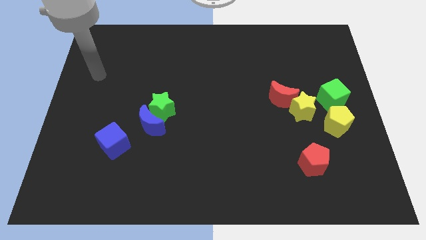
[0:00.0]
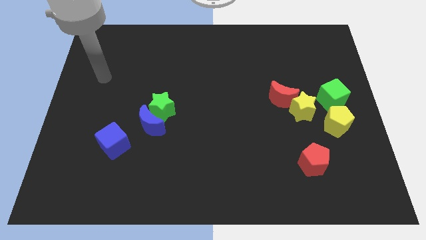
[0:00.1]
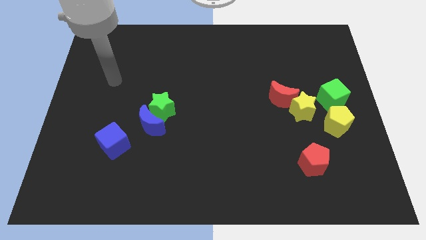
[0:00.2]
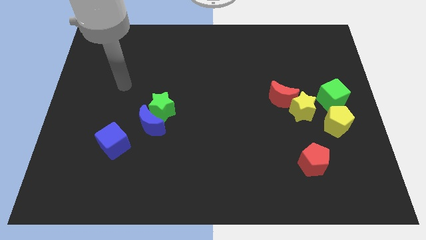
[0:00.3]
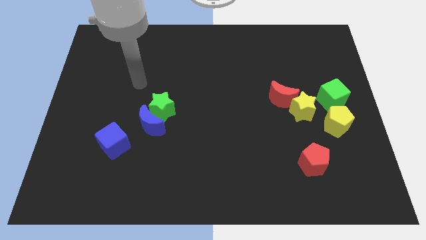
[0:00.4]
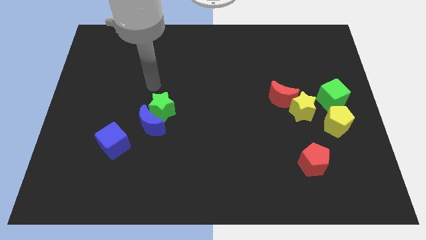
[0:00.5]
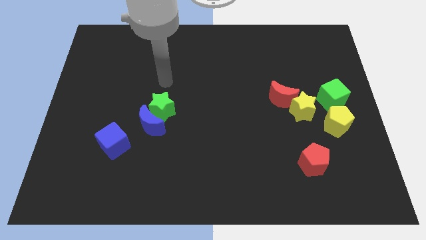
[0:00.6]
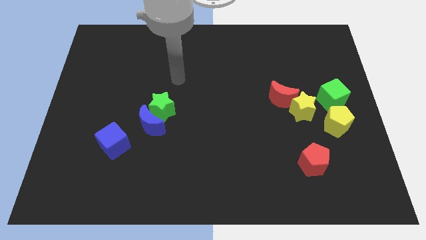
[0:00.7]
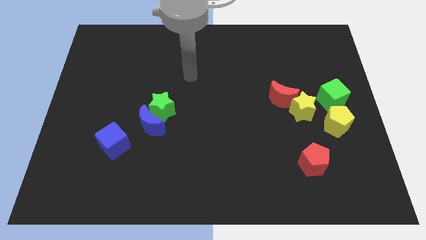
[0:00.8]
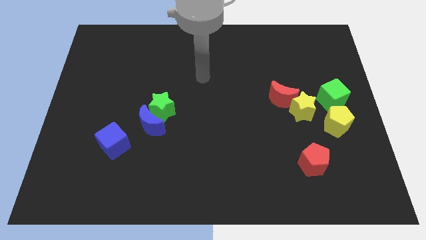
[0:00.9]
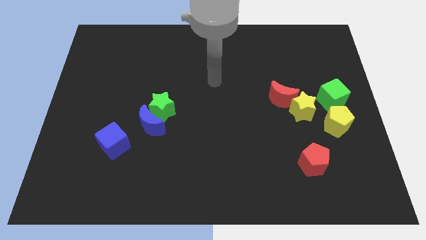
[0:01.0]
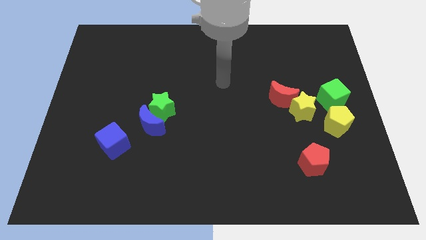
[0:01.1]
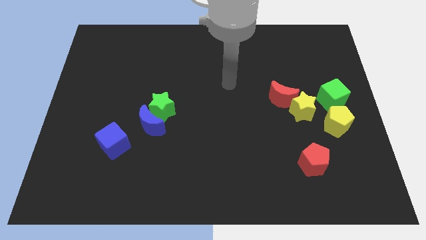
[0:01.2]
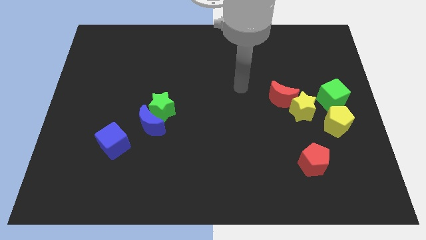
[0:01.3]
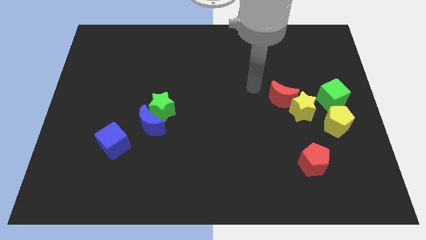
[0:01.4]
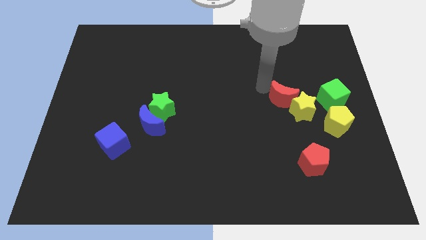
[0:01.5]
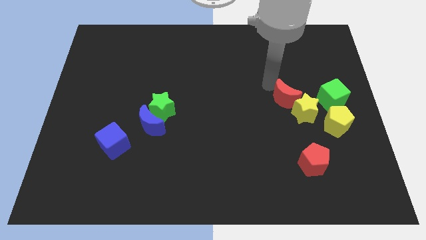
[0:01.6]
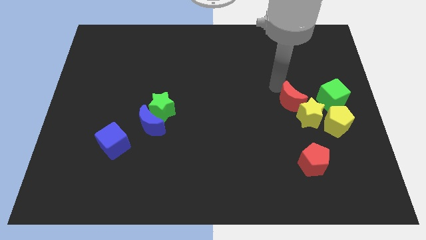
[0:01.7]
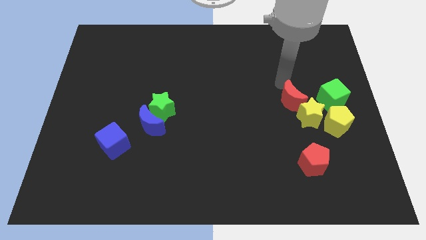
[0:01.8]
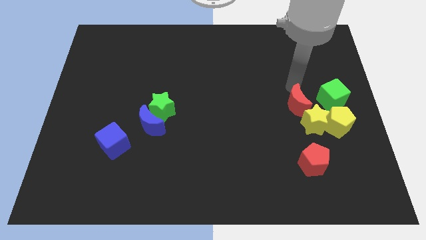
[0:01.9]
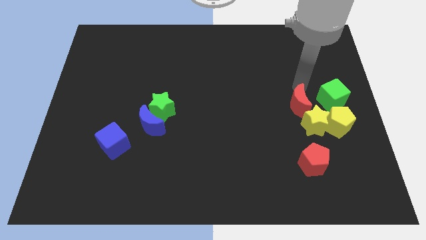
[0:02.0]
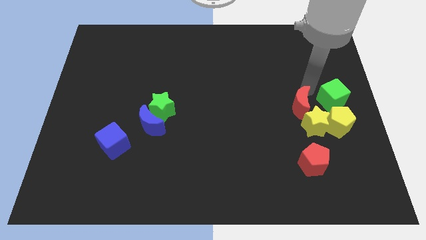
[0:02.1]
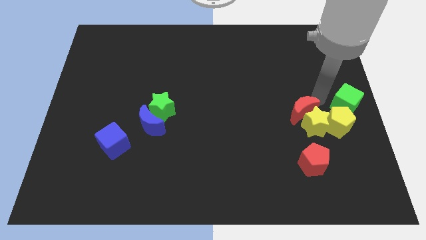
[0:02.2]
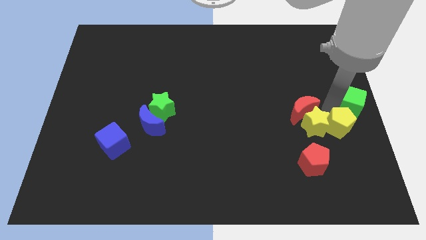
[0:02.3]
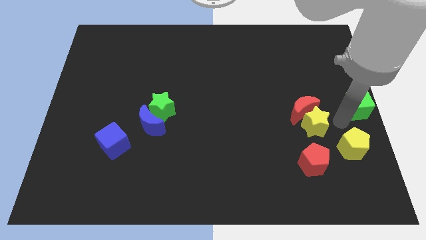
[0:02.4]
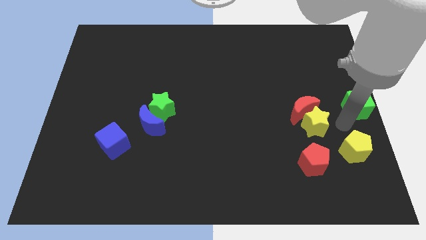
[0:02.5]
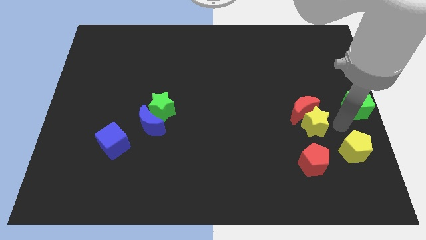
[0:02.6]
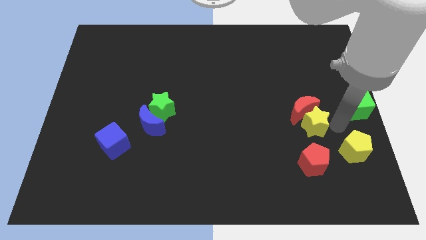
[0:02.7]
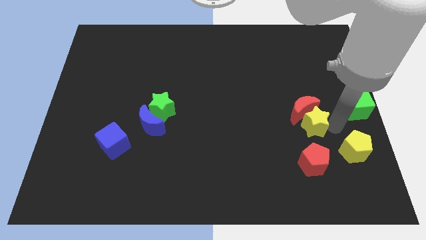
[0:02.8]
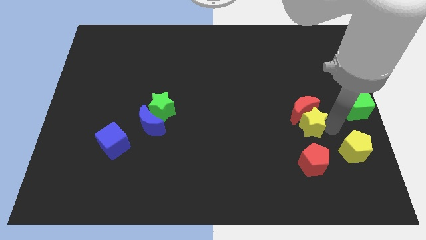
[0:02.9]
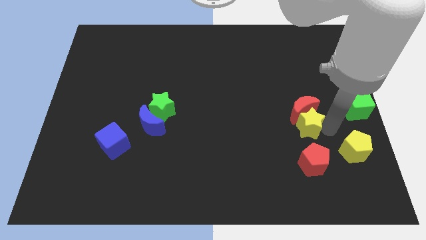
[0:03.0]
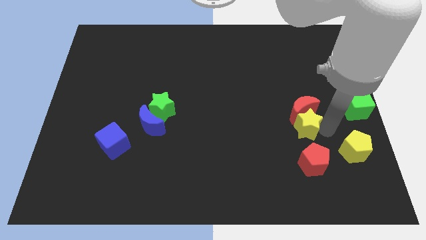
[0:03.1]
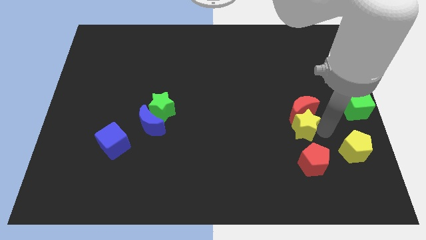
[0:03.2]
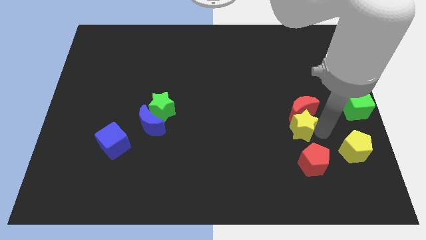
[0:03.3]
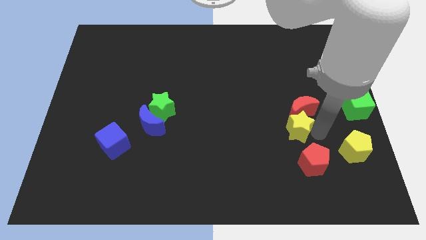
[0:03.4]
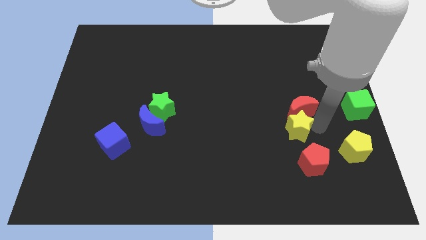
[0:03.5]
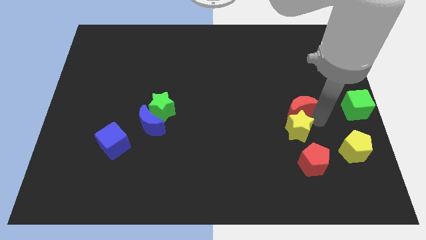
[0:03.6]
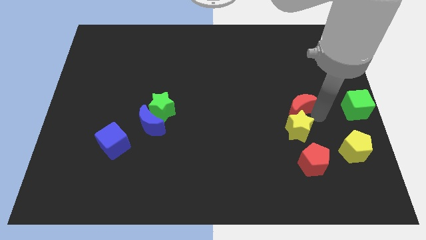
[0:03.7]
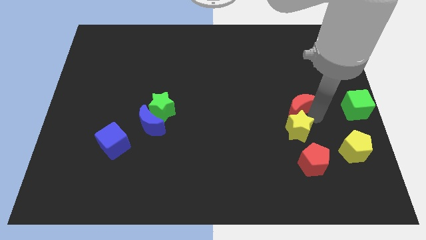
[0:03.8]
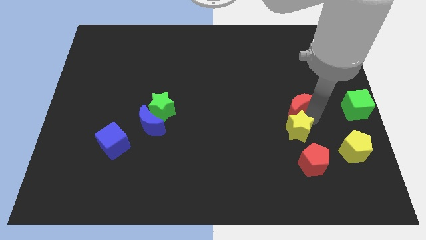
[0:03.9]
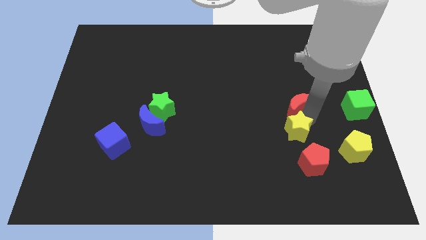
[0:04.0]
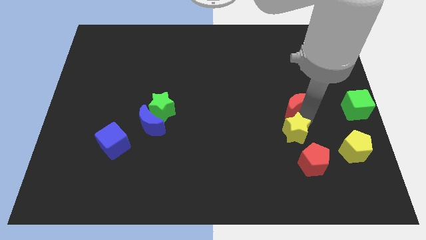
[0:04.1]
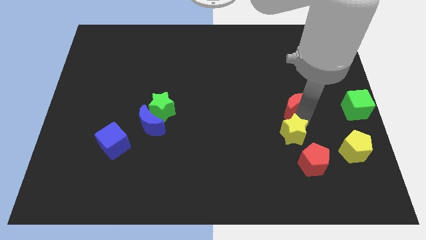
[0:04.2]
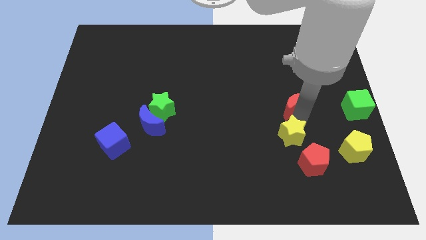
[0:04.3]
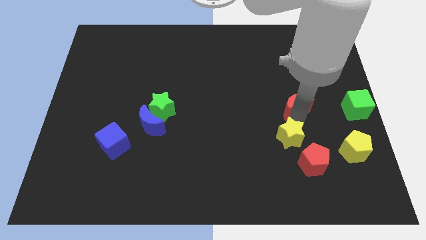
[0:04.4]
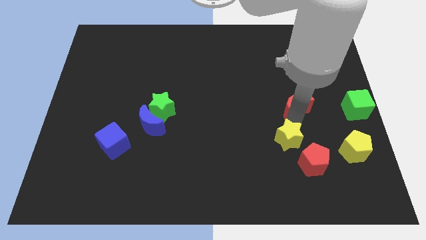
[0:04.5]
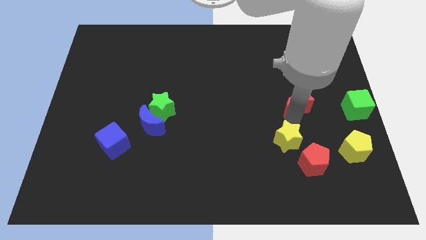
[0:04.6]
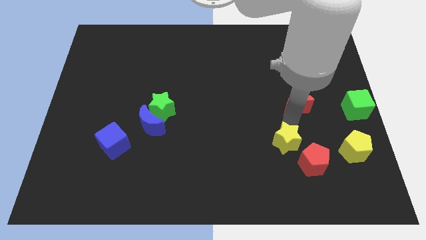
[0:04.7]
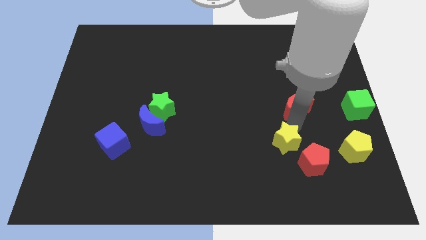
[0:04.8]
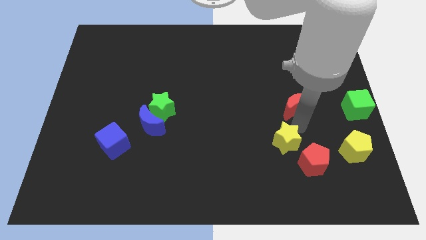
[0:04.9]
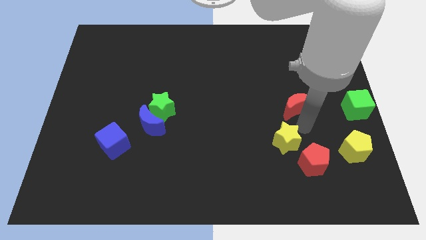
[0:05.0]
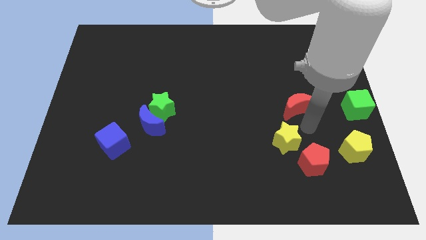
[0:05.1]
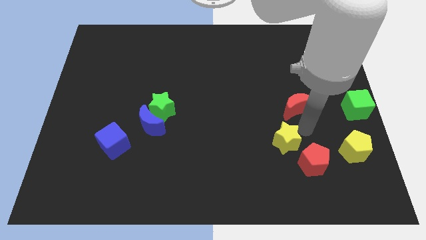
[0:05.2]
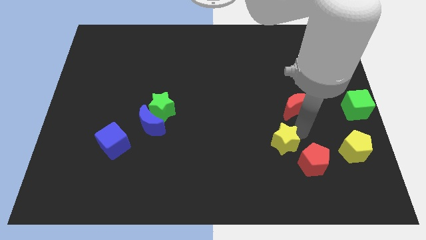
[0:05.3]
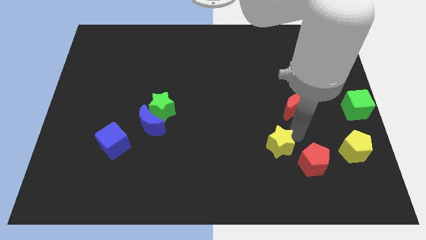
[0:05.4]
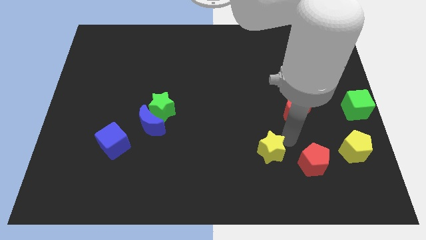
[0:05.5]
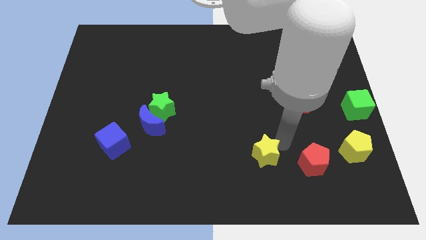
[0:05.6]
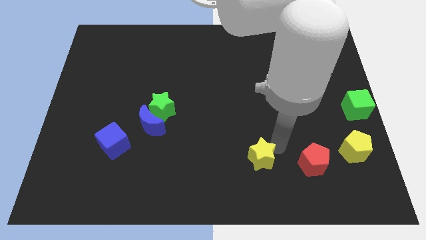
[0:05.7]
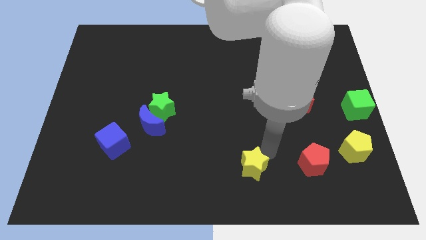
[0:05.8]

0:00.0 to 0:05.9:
move the yellow star to the bottom side
